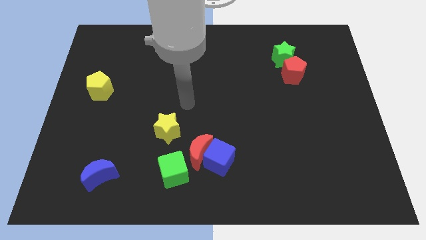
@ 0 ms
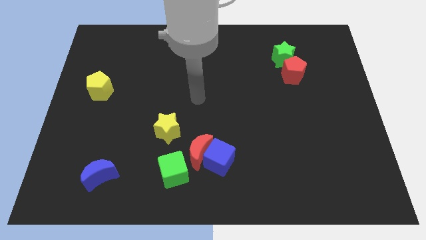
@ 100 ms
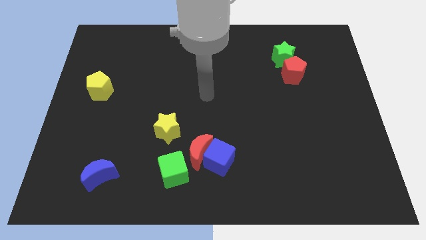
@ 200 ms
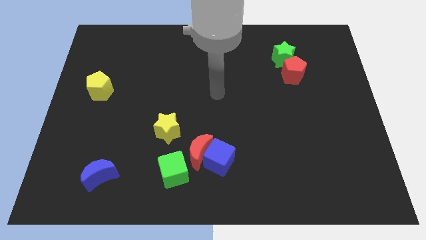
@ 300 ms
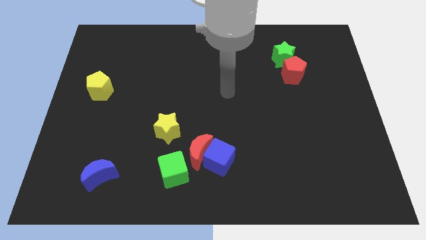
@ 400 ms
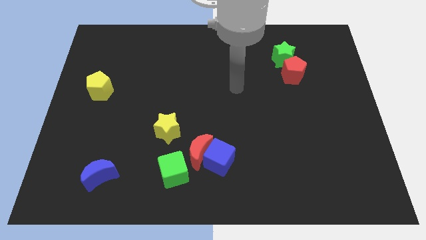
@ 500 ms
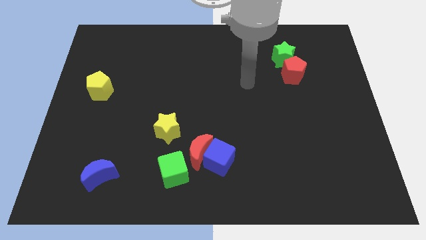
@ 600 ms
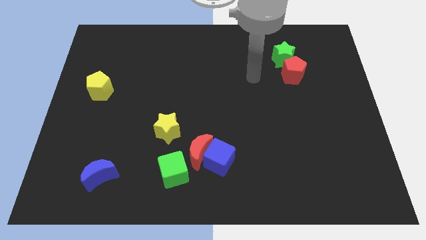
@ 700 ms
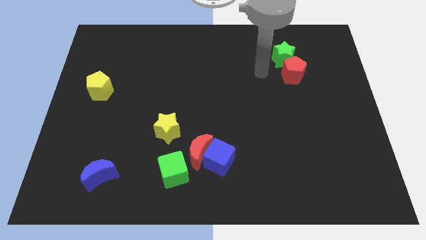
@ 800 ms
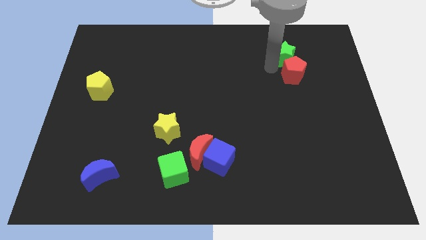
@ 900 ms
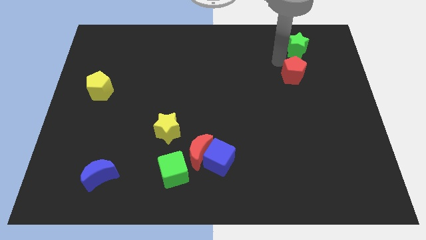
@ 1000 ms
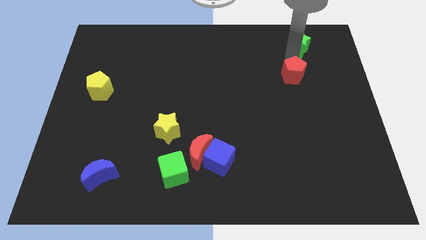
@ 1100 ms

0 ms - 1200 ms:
move the red pentagon away from the green star

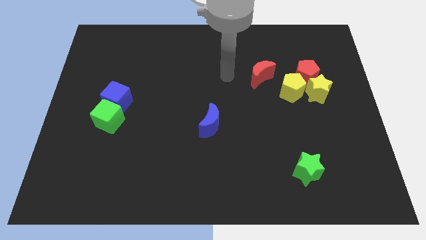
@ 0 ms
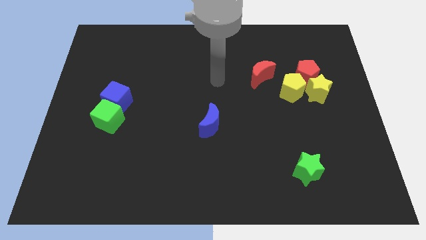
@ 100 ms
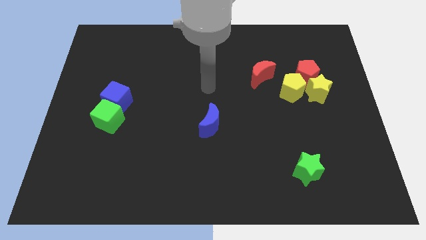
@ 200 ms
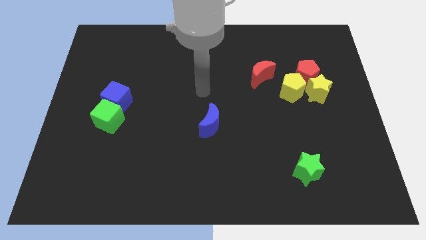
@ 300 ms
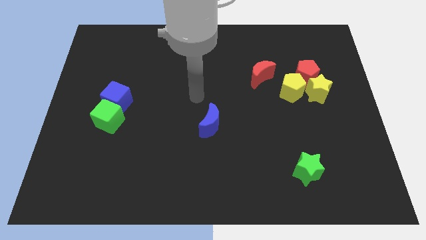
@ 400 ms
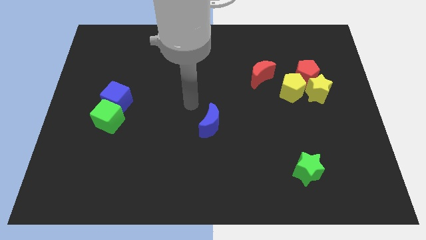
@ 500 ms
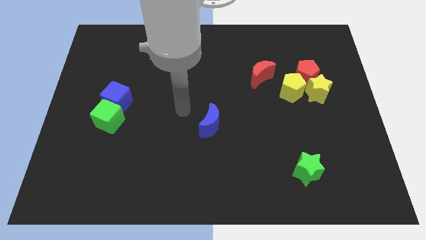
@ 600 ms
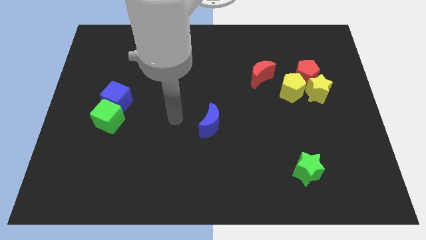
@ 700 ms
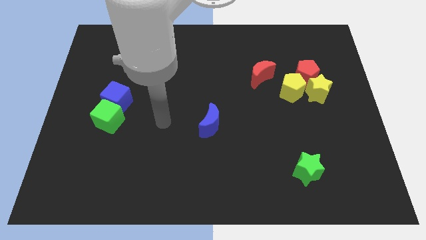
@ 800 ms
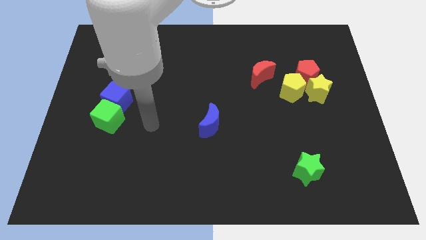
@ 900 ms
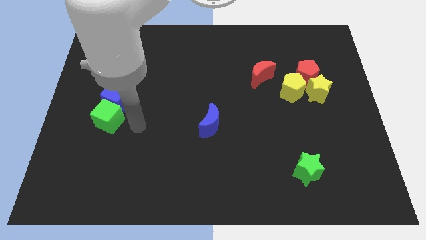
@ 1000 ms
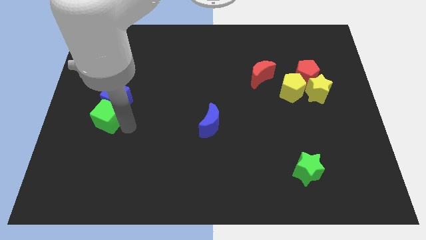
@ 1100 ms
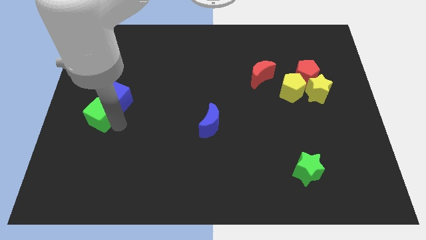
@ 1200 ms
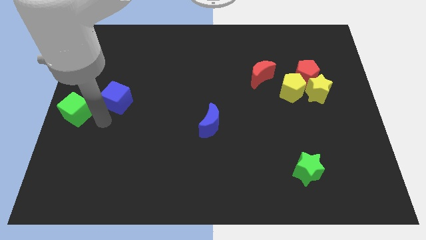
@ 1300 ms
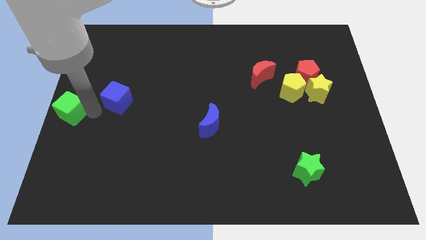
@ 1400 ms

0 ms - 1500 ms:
separate the blue cube from the green cube

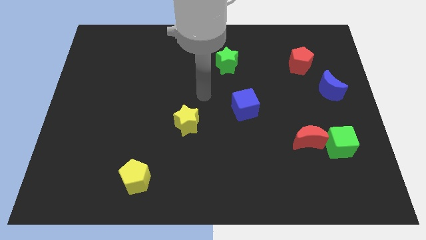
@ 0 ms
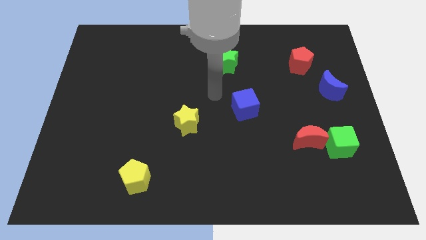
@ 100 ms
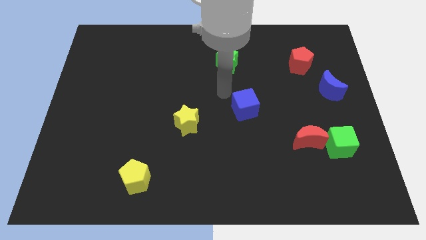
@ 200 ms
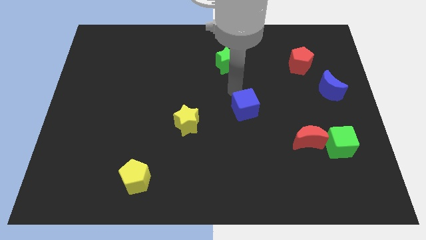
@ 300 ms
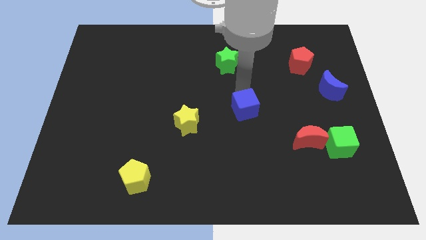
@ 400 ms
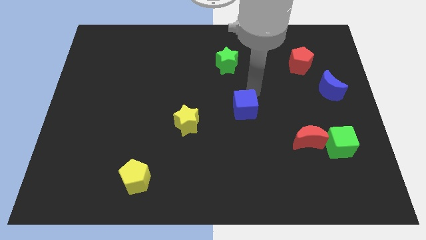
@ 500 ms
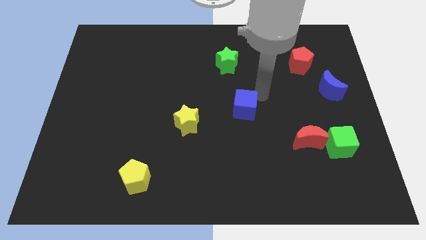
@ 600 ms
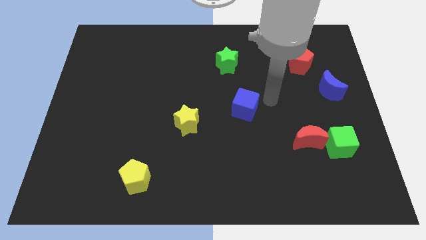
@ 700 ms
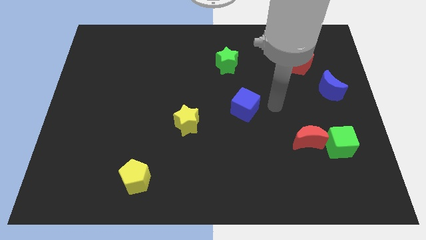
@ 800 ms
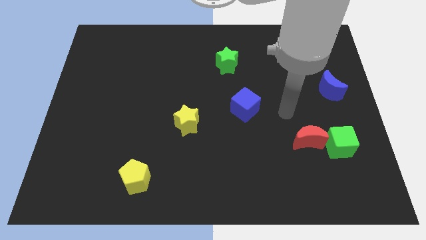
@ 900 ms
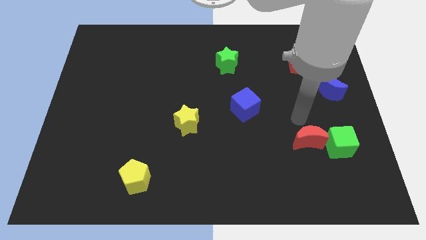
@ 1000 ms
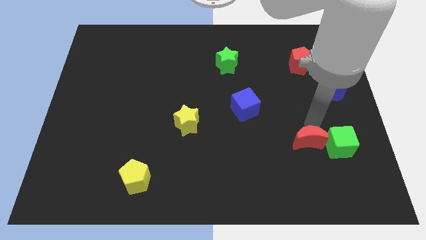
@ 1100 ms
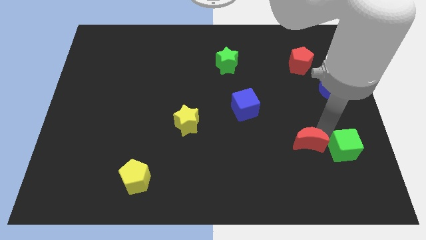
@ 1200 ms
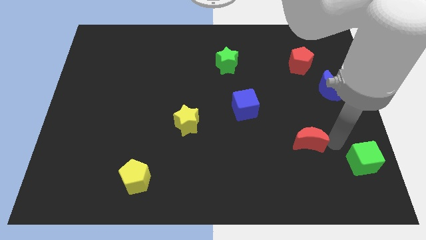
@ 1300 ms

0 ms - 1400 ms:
move the red moon away from the green cube

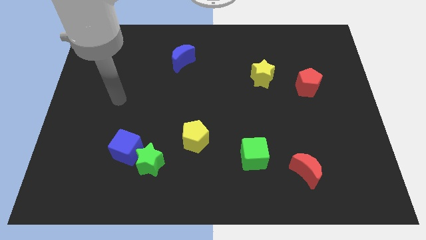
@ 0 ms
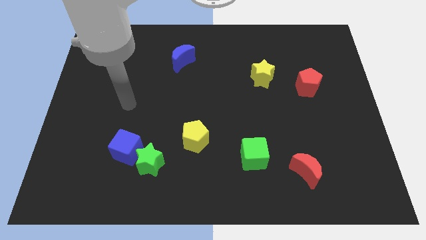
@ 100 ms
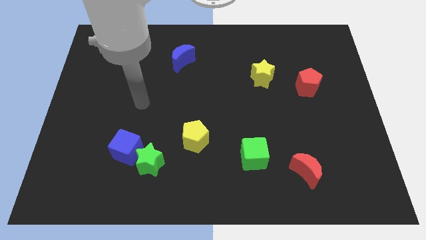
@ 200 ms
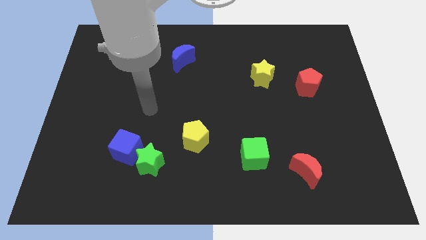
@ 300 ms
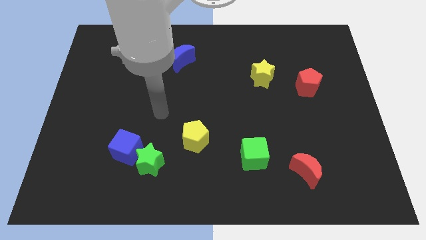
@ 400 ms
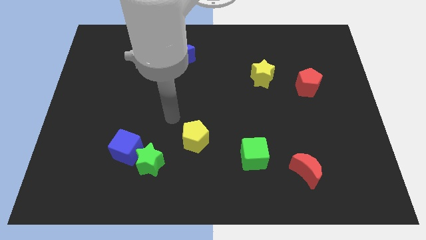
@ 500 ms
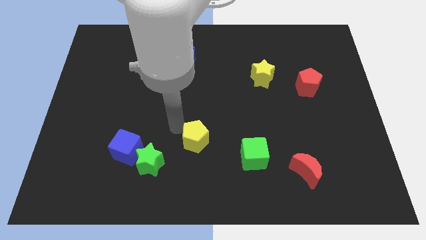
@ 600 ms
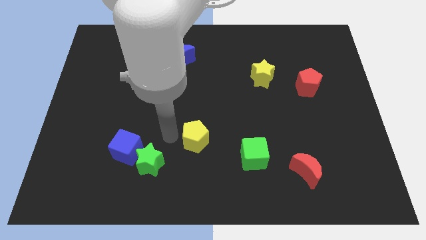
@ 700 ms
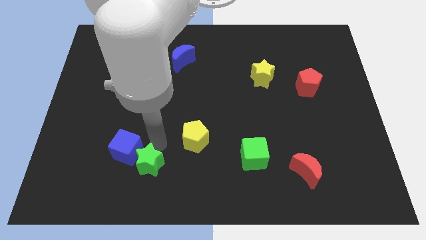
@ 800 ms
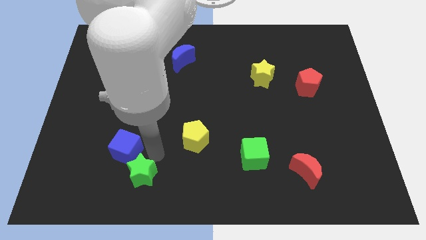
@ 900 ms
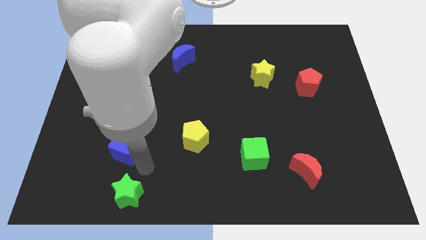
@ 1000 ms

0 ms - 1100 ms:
separate the blue cube from the green star

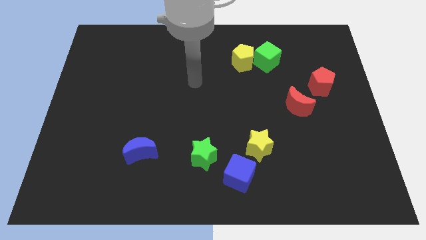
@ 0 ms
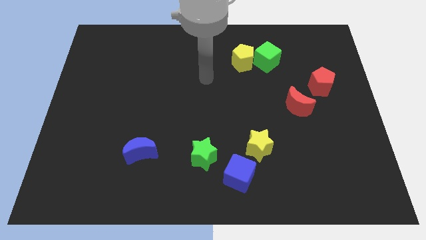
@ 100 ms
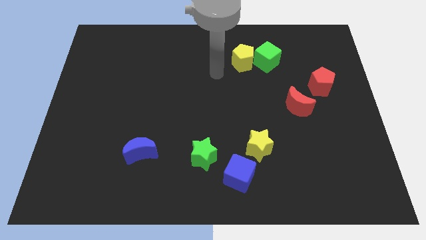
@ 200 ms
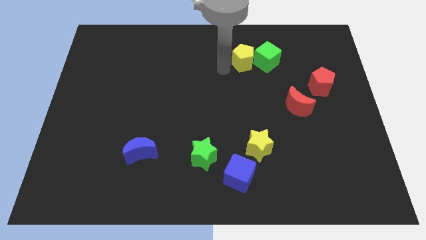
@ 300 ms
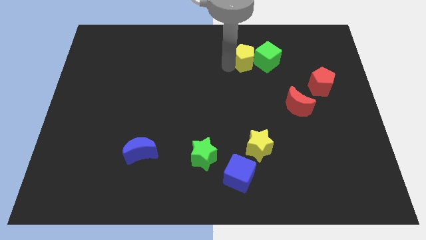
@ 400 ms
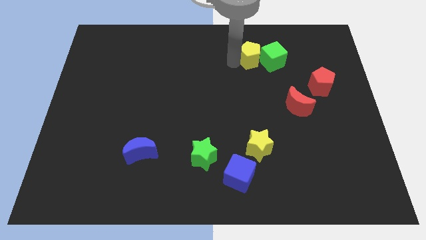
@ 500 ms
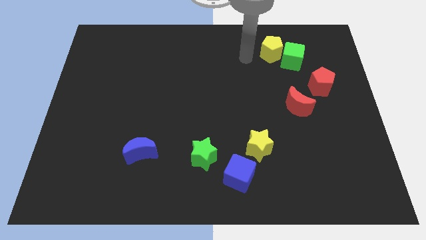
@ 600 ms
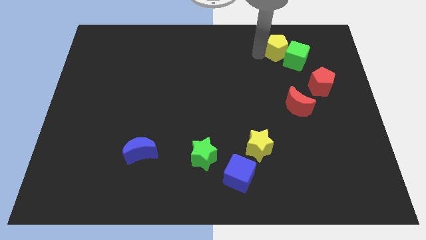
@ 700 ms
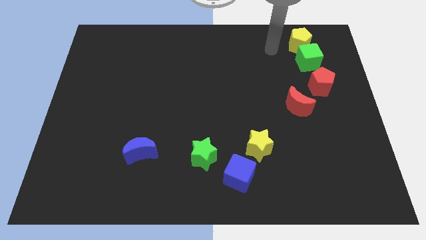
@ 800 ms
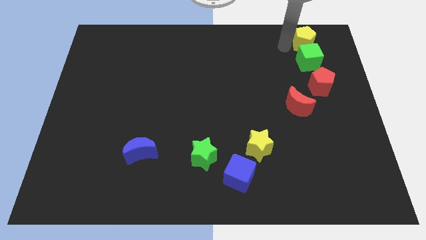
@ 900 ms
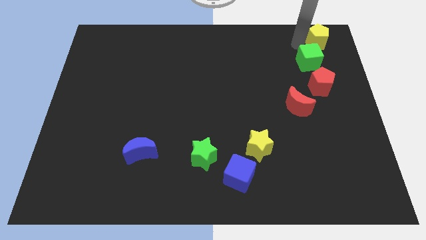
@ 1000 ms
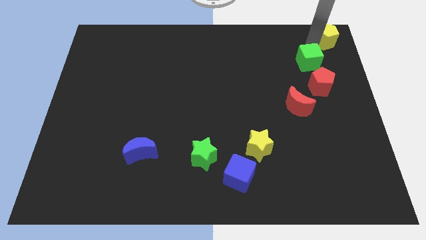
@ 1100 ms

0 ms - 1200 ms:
move the green cube away from the yellow pentagon

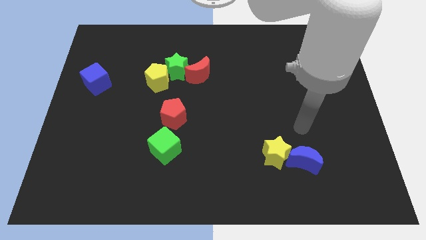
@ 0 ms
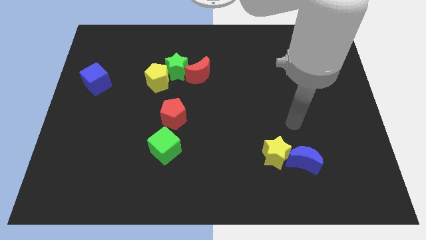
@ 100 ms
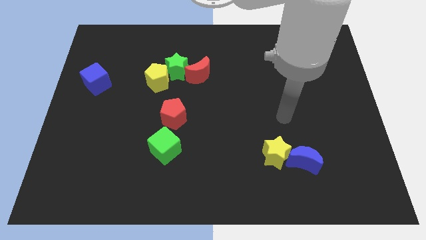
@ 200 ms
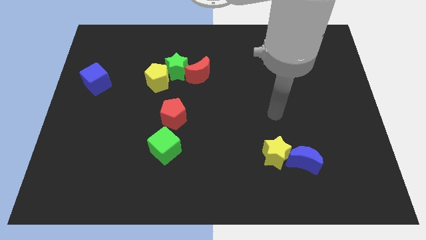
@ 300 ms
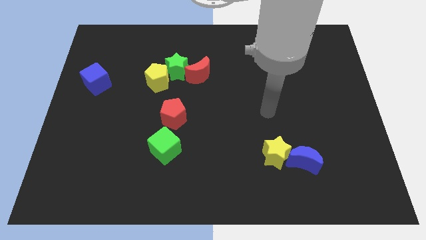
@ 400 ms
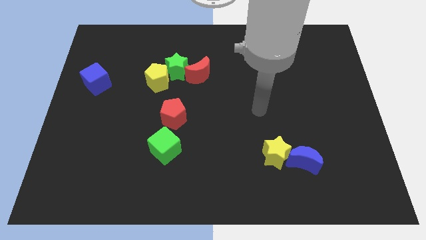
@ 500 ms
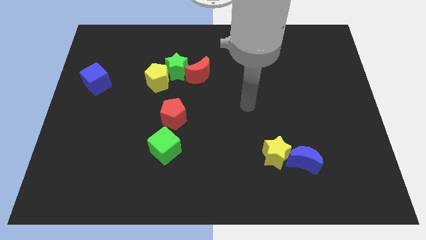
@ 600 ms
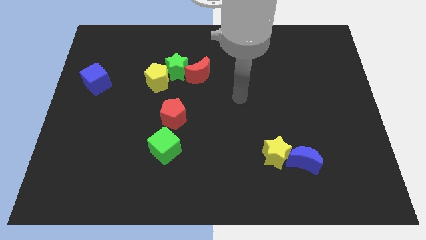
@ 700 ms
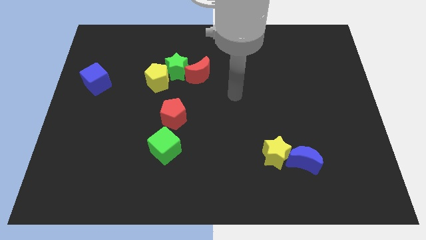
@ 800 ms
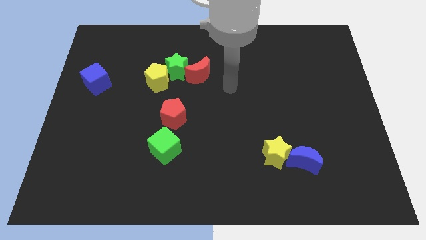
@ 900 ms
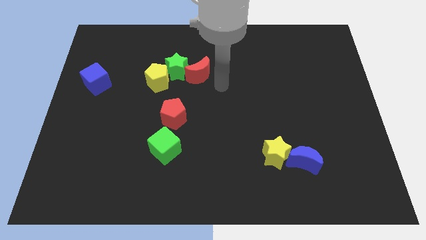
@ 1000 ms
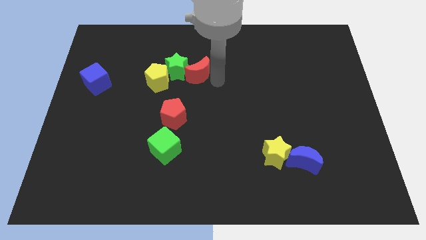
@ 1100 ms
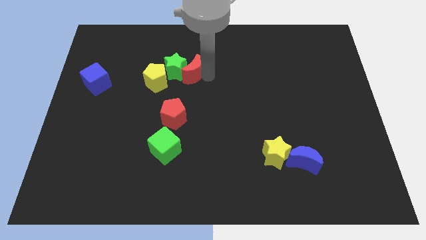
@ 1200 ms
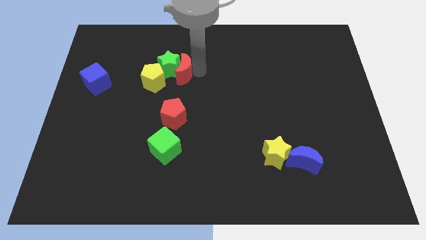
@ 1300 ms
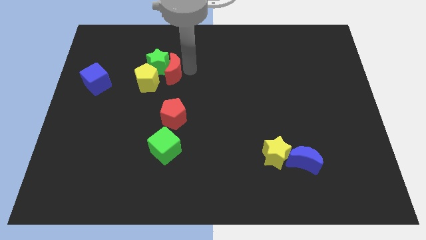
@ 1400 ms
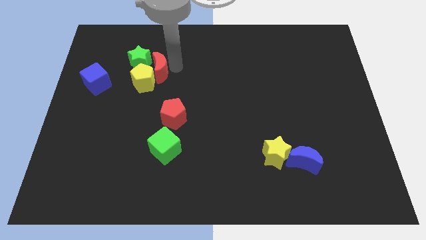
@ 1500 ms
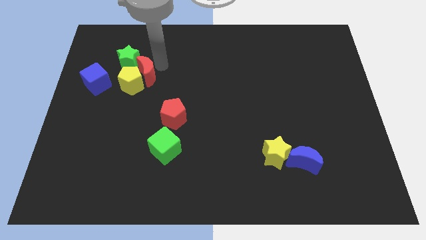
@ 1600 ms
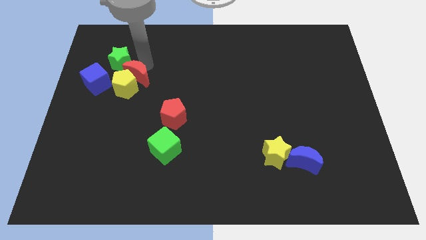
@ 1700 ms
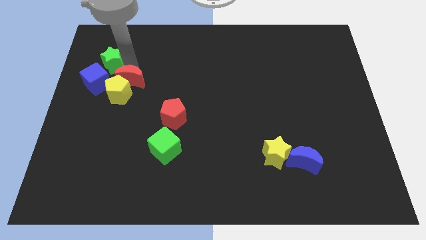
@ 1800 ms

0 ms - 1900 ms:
move the yellow pentagon away from the green star

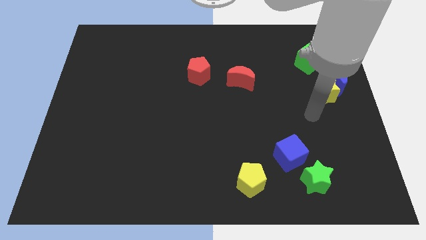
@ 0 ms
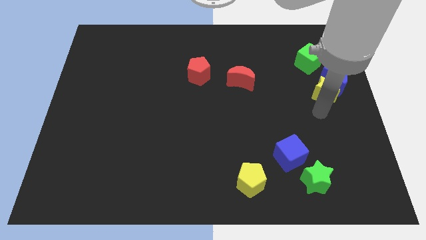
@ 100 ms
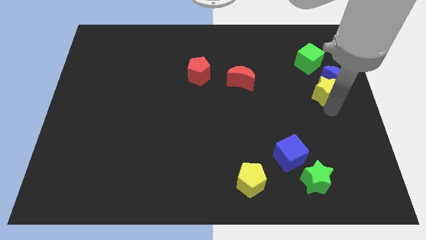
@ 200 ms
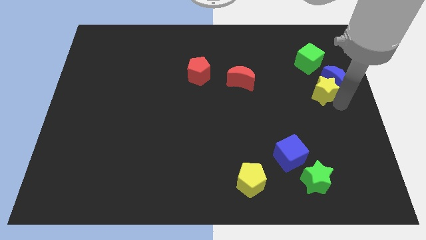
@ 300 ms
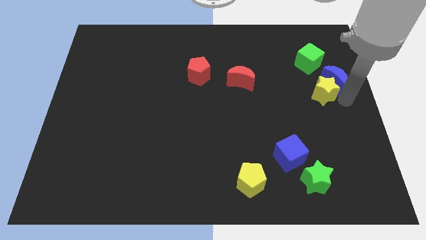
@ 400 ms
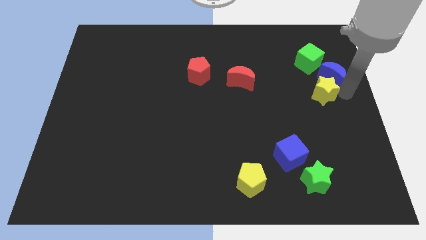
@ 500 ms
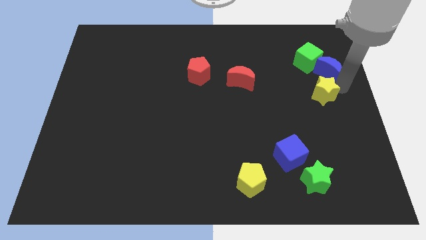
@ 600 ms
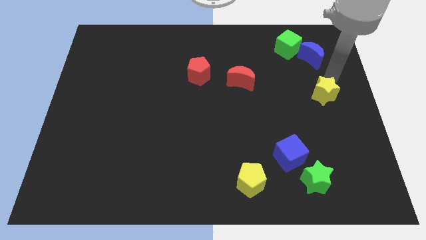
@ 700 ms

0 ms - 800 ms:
move the yellow star away from the blue moon

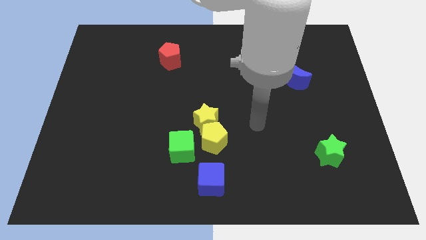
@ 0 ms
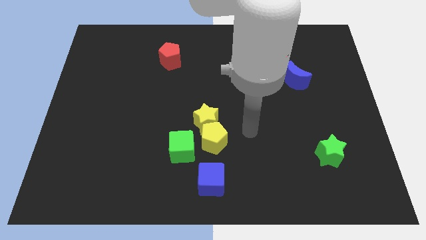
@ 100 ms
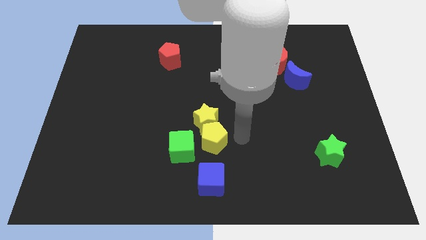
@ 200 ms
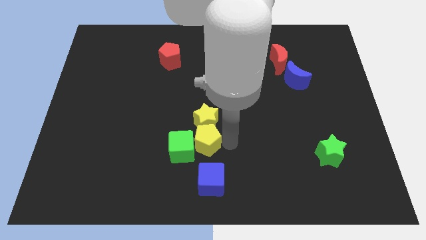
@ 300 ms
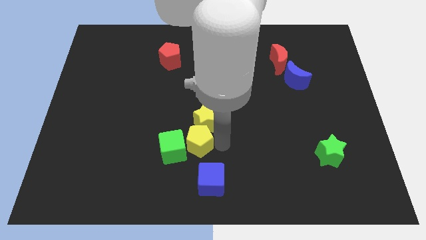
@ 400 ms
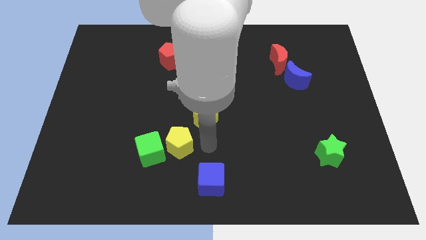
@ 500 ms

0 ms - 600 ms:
separate the yellow star from the yellow pentagon and green cube
